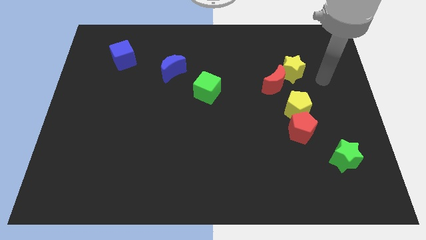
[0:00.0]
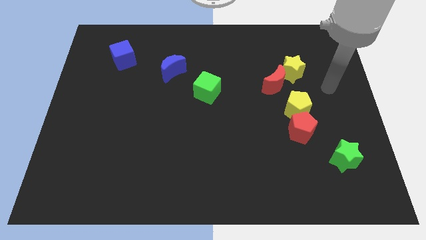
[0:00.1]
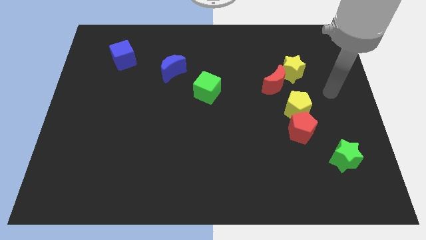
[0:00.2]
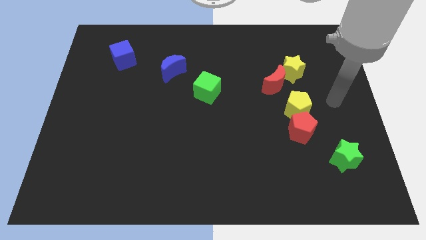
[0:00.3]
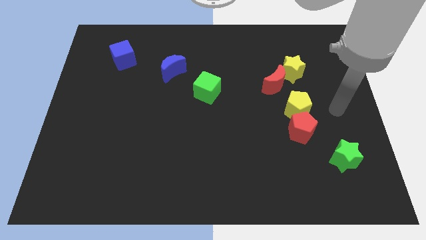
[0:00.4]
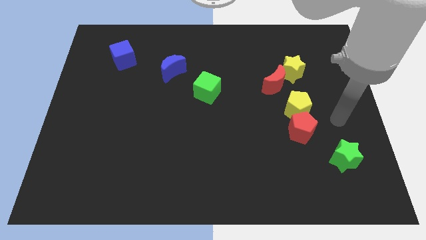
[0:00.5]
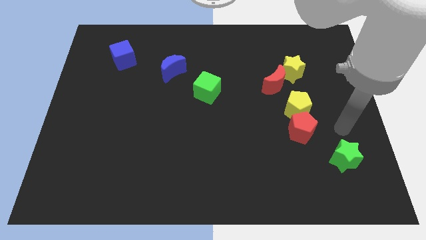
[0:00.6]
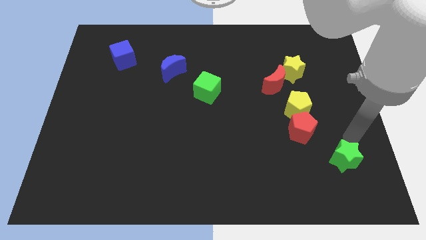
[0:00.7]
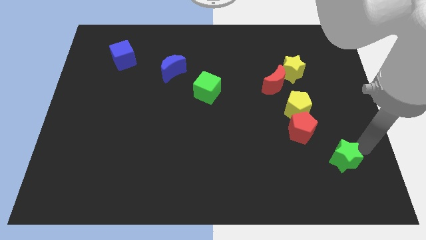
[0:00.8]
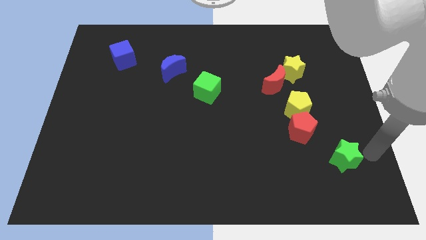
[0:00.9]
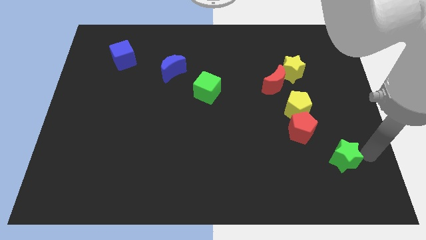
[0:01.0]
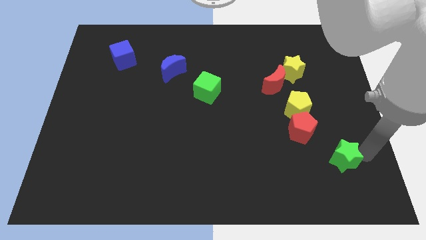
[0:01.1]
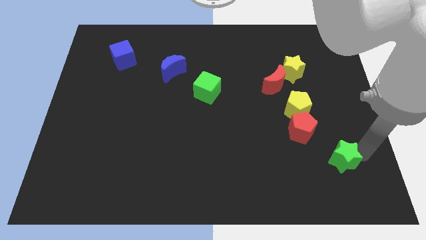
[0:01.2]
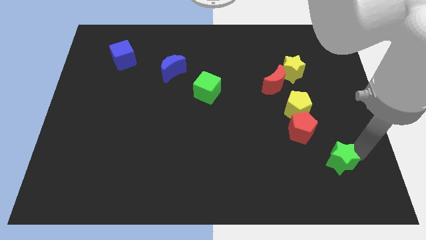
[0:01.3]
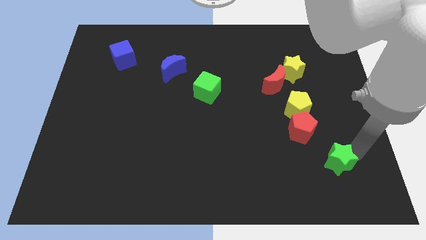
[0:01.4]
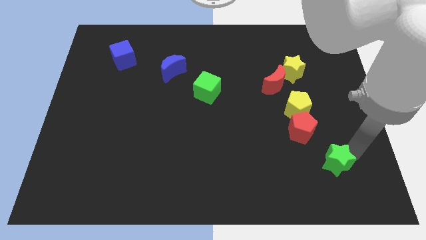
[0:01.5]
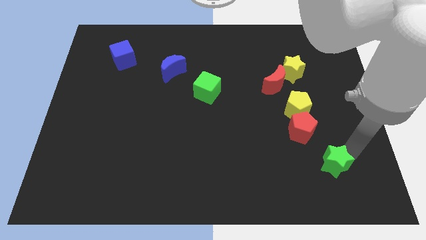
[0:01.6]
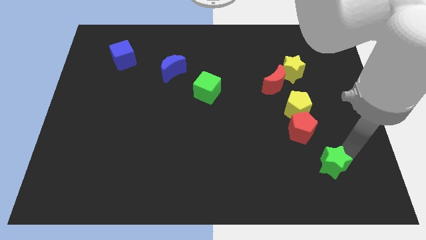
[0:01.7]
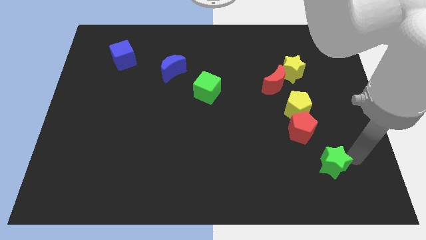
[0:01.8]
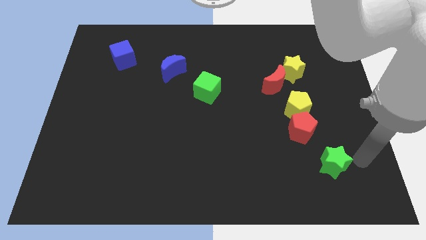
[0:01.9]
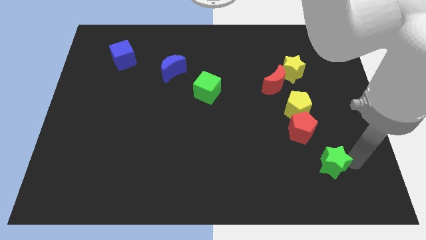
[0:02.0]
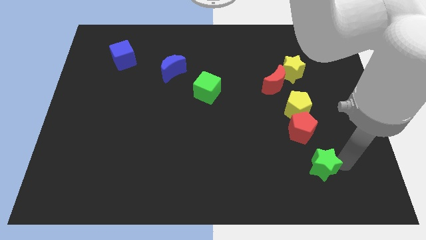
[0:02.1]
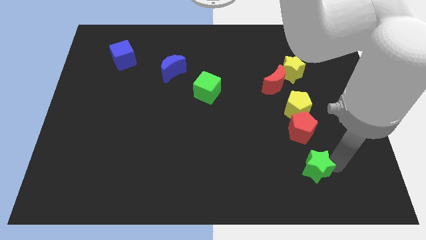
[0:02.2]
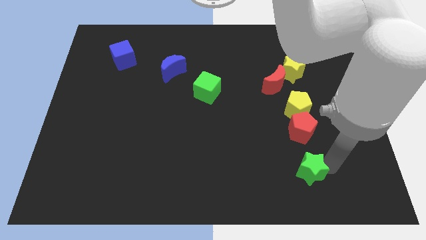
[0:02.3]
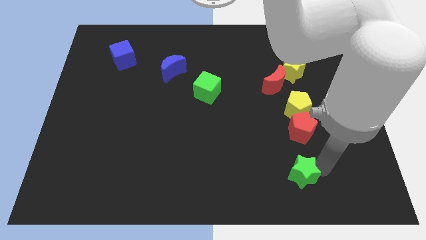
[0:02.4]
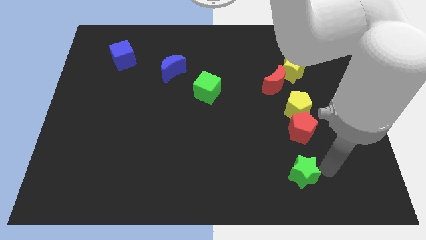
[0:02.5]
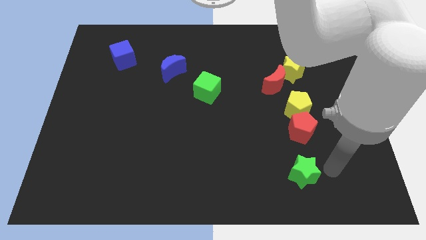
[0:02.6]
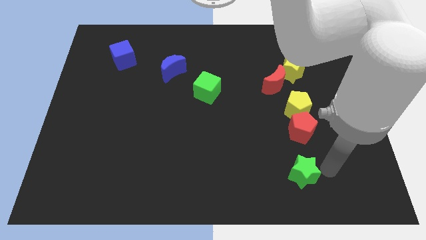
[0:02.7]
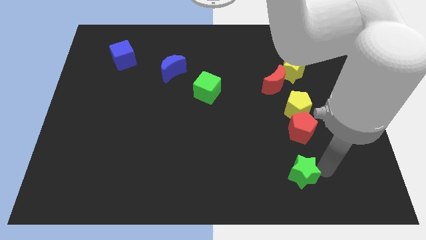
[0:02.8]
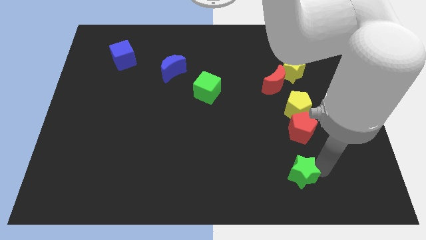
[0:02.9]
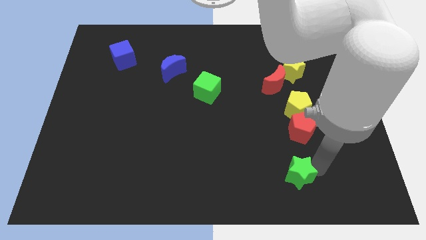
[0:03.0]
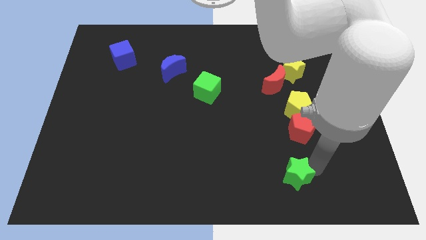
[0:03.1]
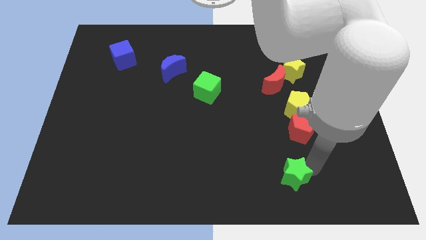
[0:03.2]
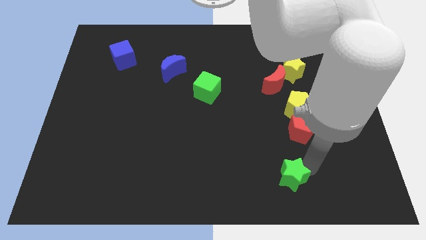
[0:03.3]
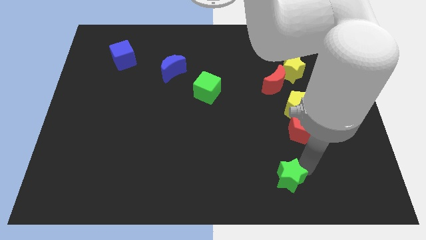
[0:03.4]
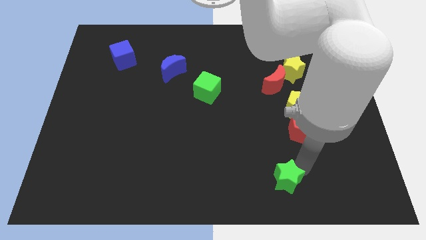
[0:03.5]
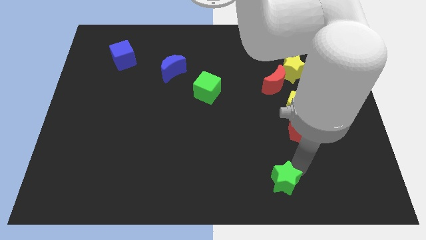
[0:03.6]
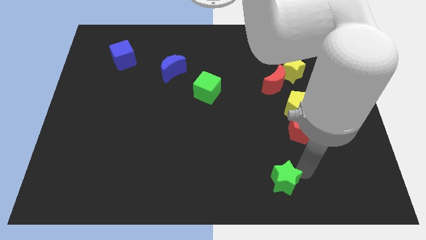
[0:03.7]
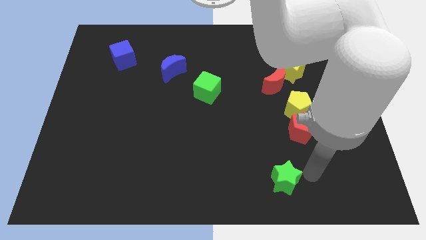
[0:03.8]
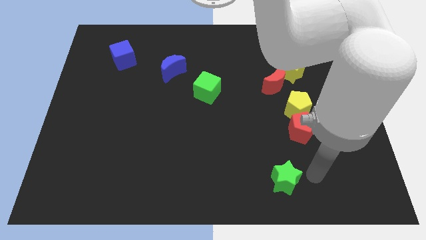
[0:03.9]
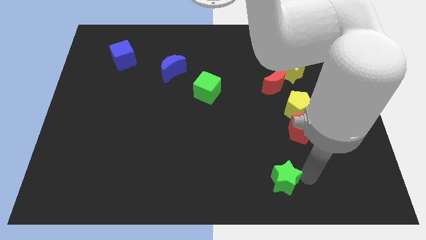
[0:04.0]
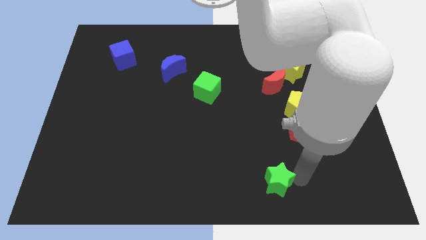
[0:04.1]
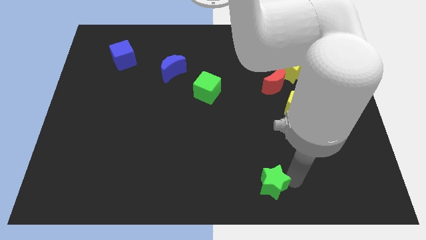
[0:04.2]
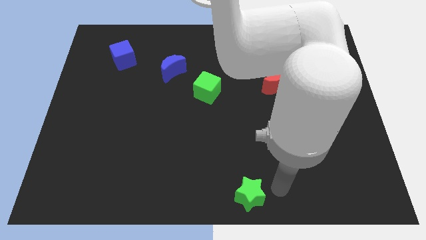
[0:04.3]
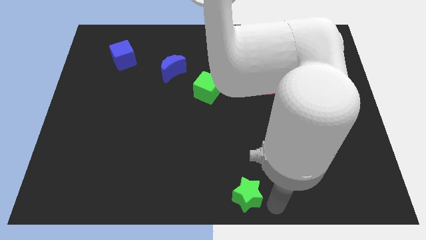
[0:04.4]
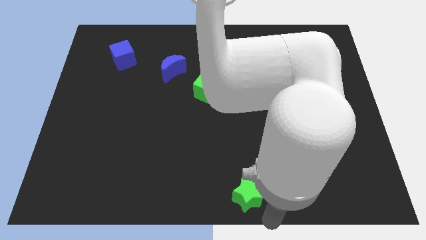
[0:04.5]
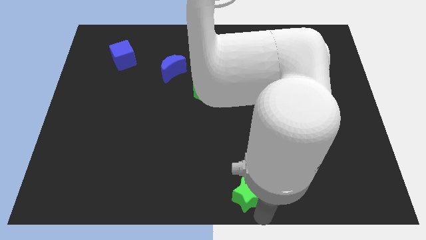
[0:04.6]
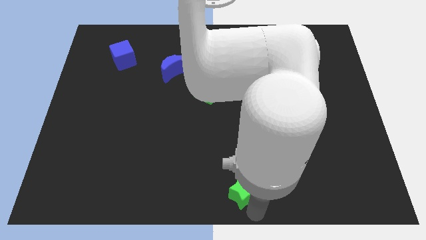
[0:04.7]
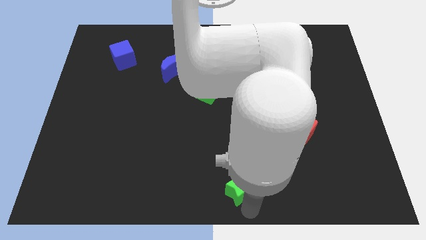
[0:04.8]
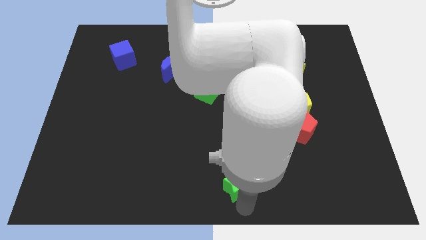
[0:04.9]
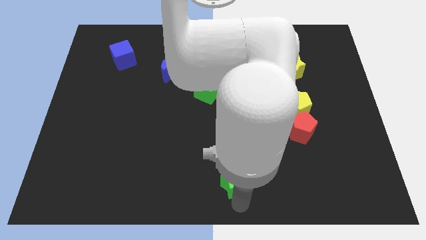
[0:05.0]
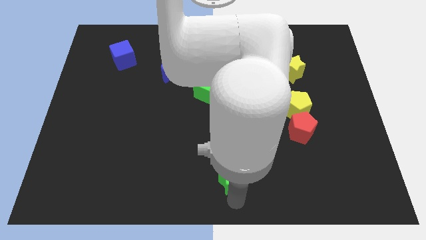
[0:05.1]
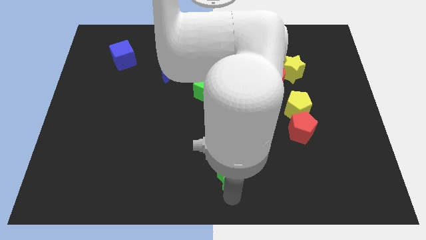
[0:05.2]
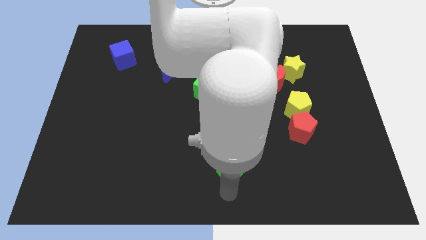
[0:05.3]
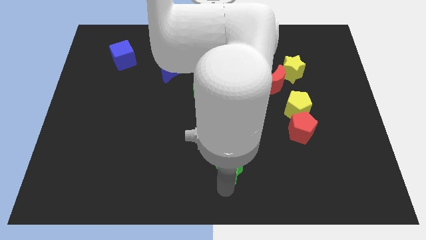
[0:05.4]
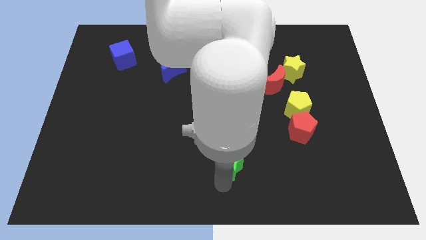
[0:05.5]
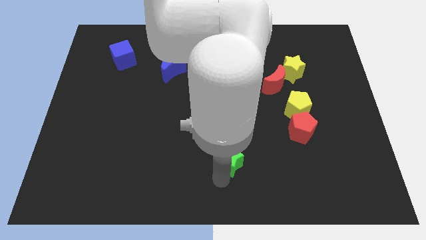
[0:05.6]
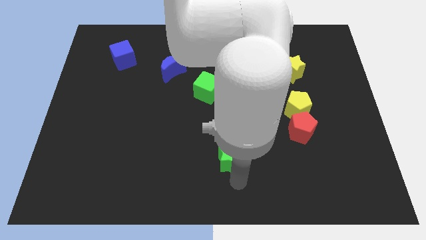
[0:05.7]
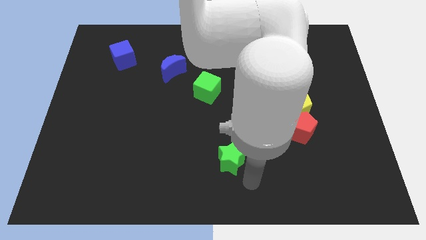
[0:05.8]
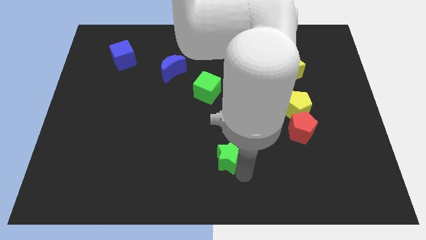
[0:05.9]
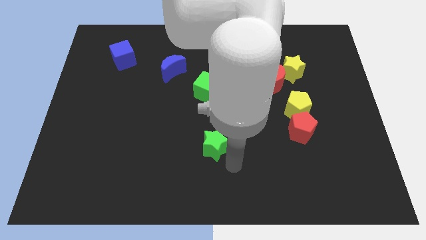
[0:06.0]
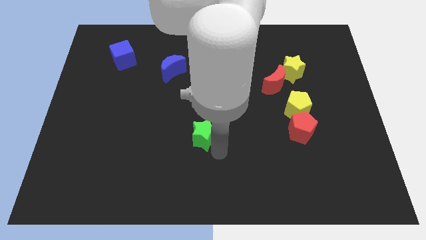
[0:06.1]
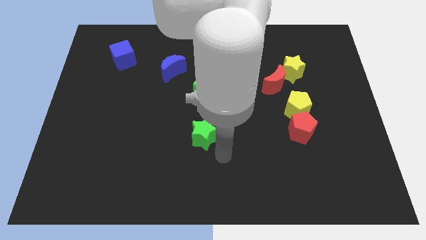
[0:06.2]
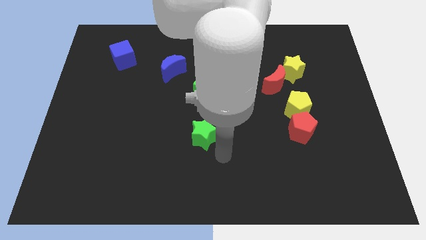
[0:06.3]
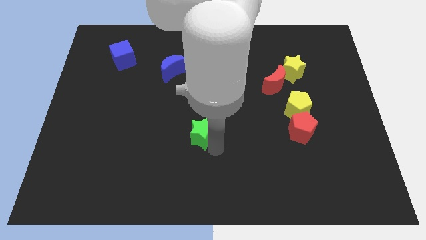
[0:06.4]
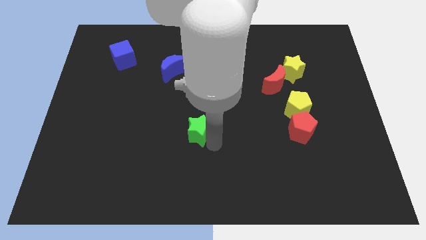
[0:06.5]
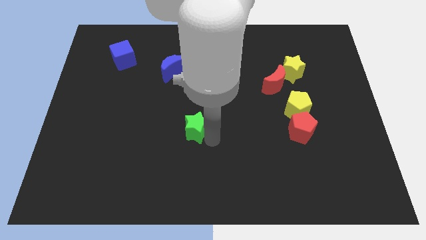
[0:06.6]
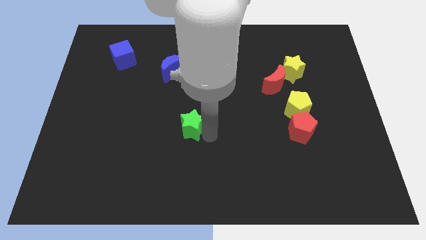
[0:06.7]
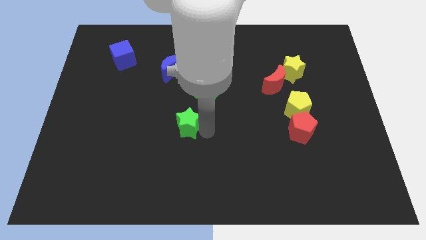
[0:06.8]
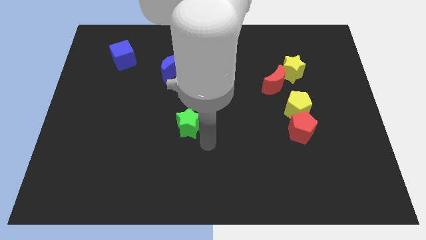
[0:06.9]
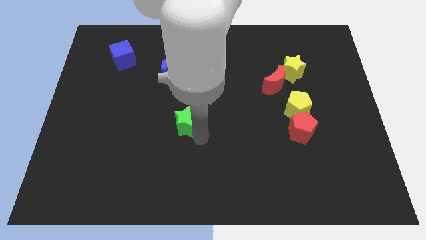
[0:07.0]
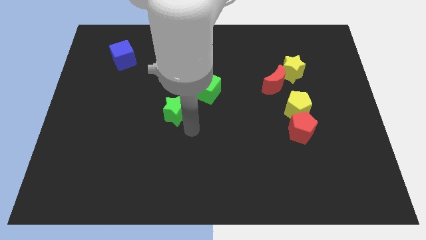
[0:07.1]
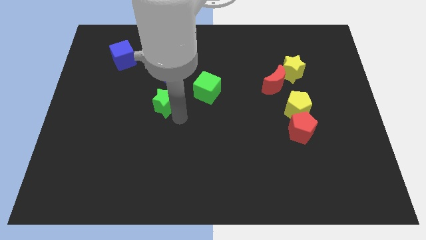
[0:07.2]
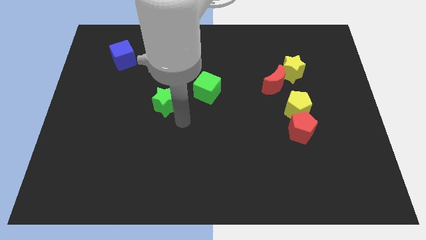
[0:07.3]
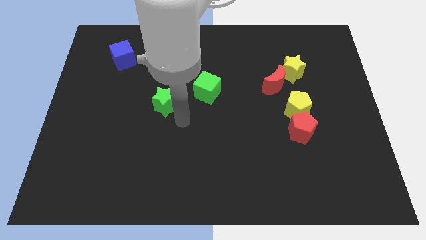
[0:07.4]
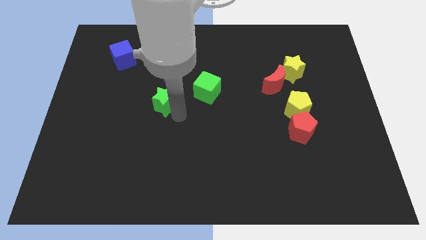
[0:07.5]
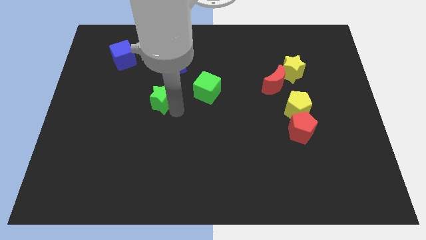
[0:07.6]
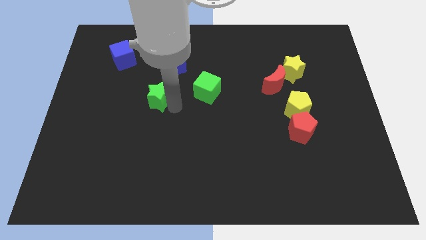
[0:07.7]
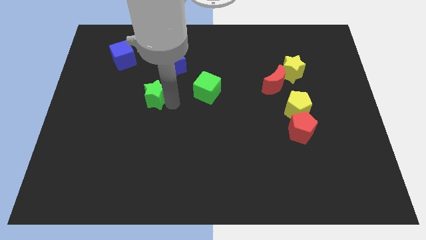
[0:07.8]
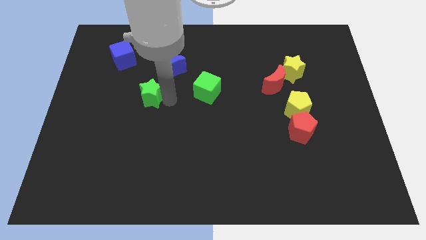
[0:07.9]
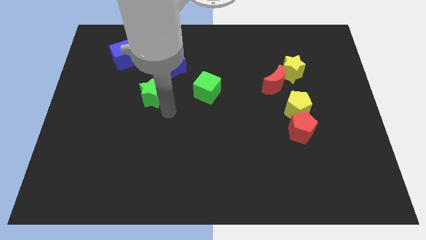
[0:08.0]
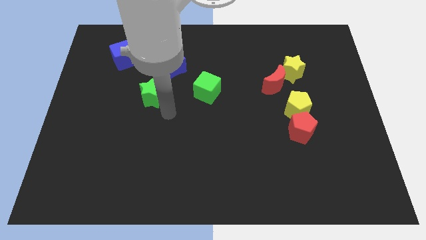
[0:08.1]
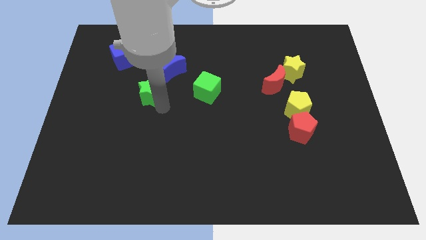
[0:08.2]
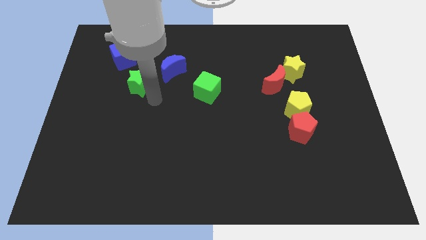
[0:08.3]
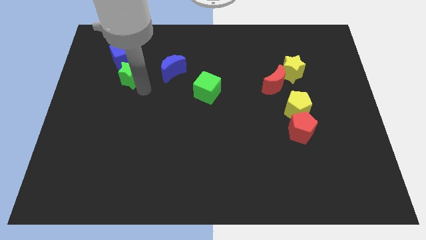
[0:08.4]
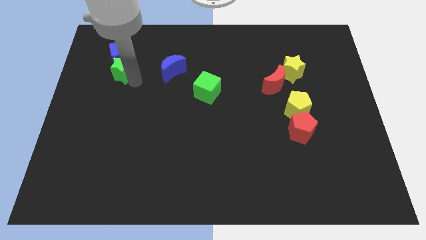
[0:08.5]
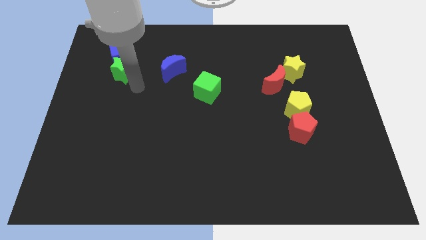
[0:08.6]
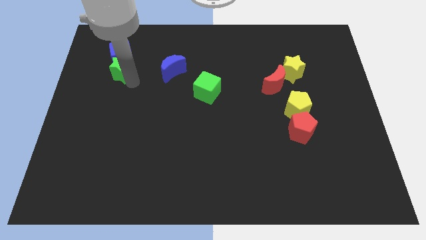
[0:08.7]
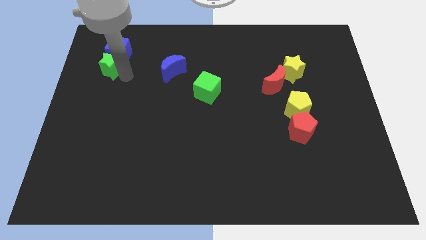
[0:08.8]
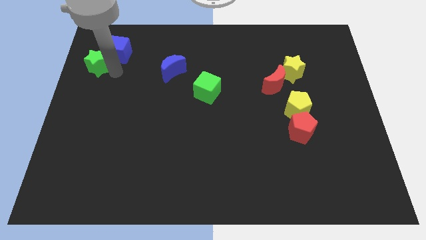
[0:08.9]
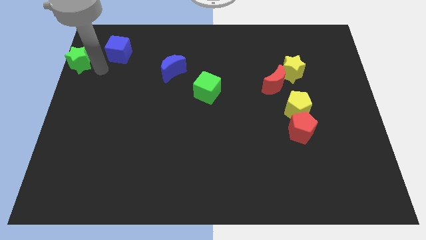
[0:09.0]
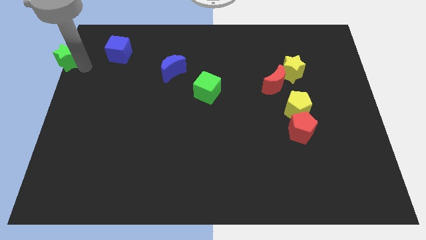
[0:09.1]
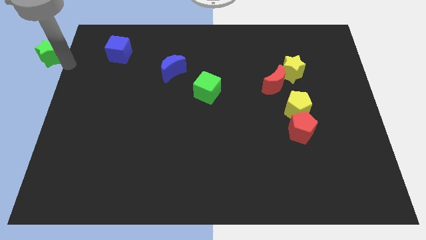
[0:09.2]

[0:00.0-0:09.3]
slide the green star to the top left of the board
